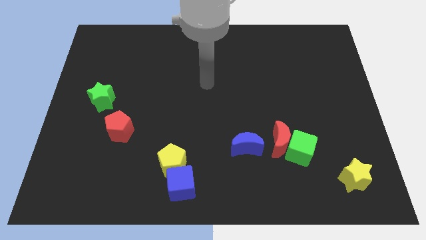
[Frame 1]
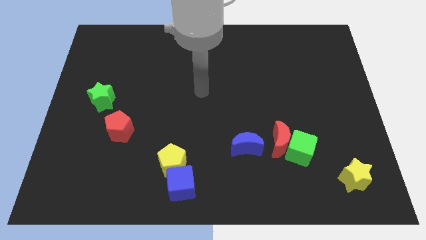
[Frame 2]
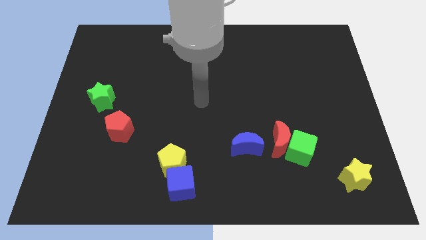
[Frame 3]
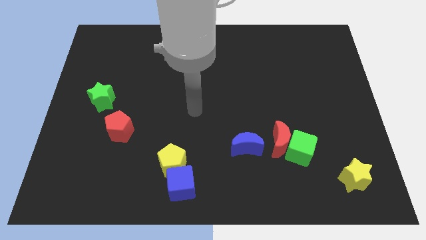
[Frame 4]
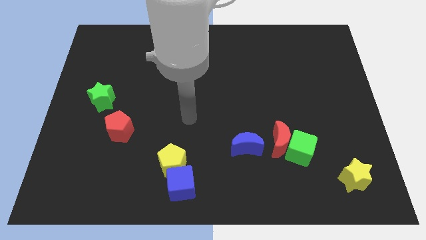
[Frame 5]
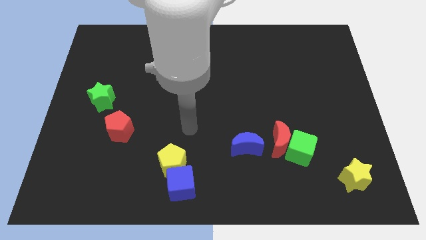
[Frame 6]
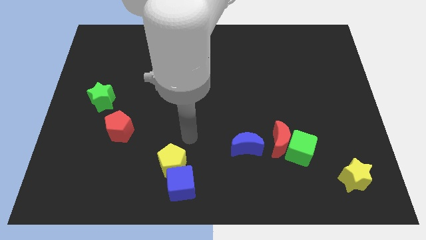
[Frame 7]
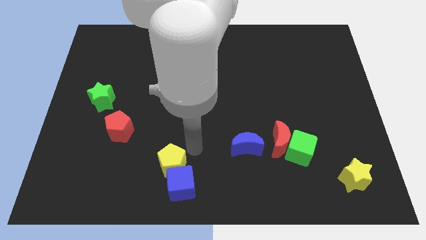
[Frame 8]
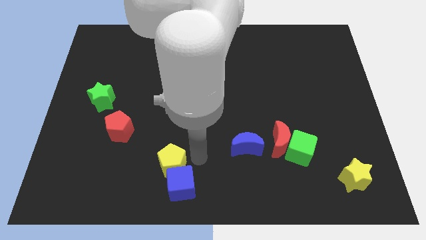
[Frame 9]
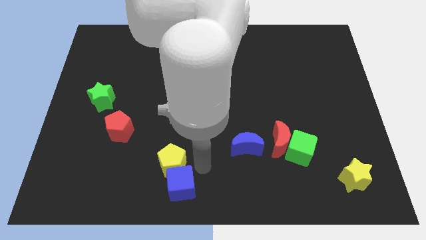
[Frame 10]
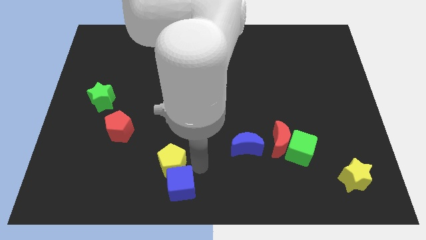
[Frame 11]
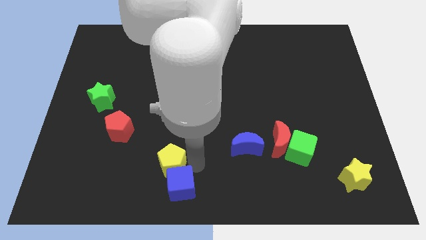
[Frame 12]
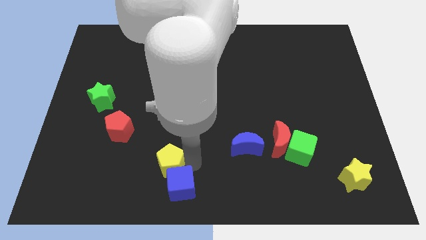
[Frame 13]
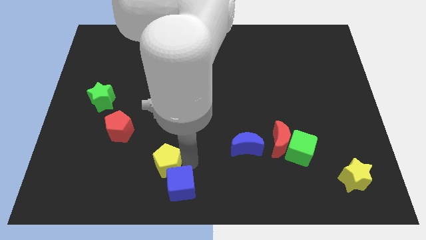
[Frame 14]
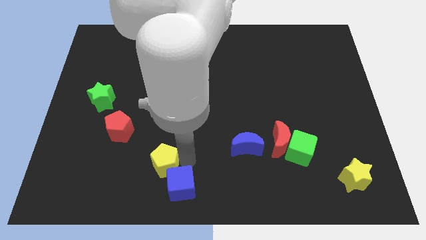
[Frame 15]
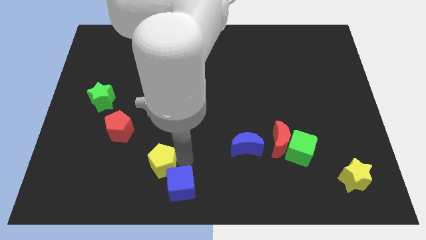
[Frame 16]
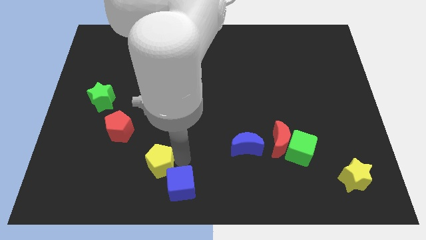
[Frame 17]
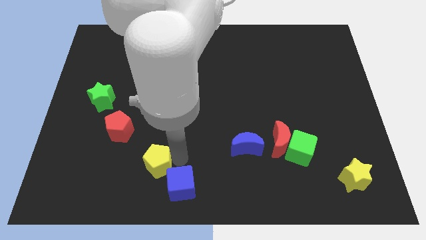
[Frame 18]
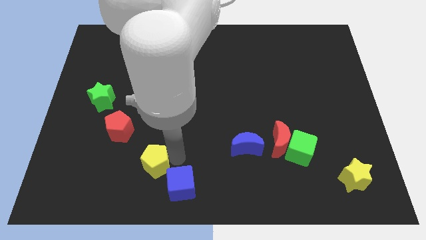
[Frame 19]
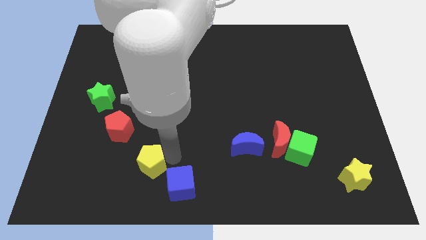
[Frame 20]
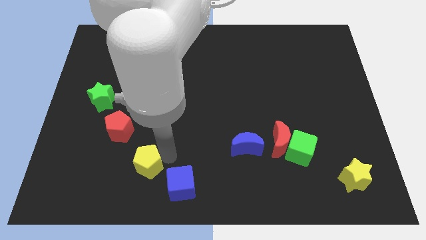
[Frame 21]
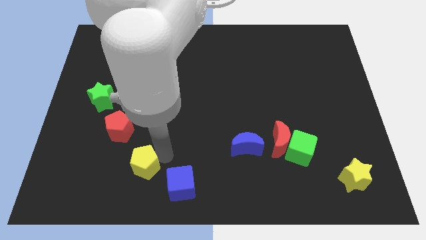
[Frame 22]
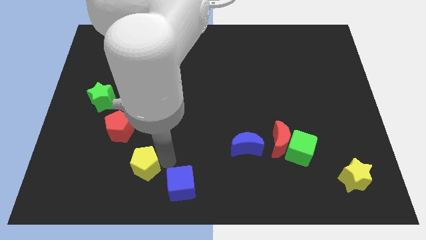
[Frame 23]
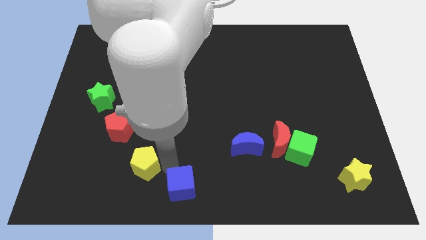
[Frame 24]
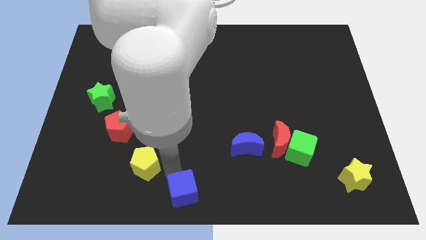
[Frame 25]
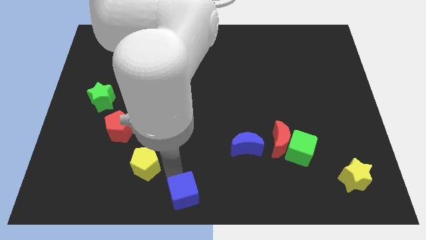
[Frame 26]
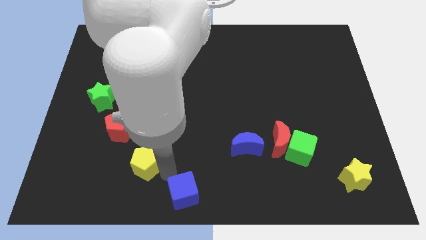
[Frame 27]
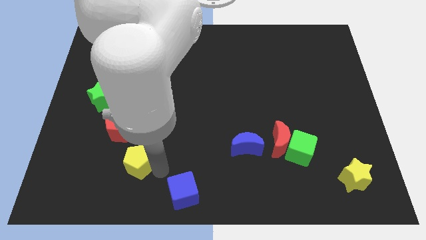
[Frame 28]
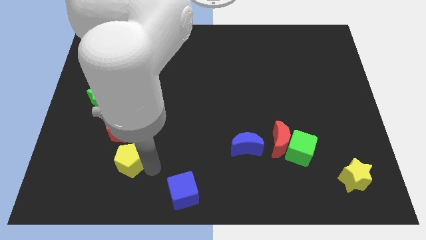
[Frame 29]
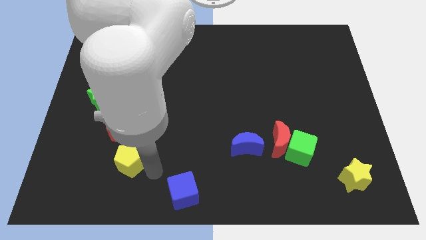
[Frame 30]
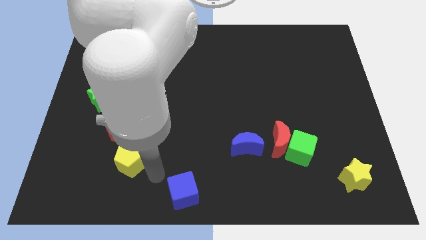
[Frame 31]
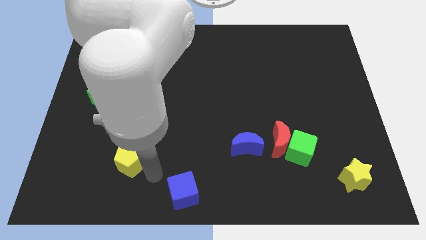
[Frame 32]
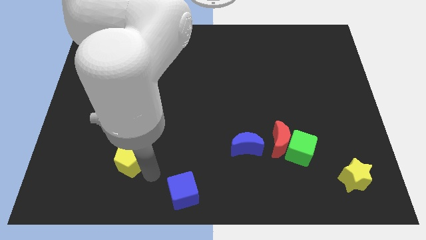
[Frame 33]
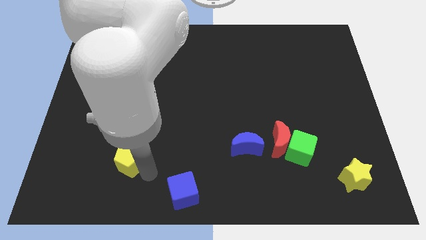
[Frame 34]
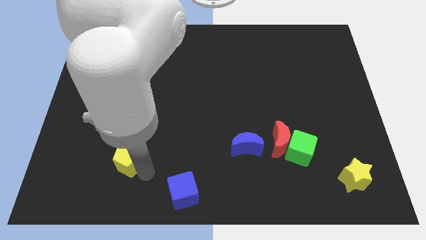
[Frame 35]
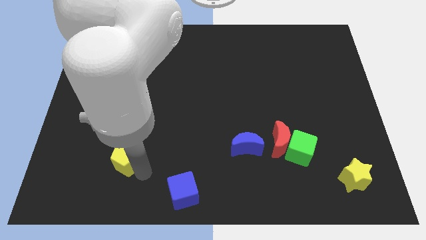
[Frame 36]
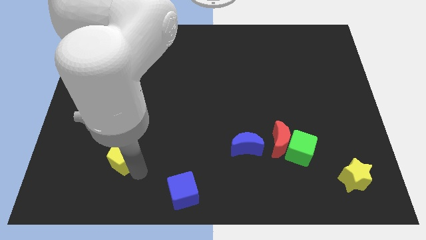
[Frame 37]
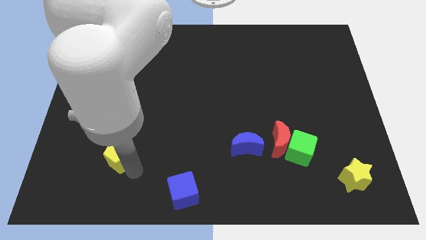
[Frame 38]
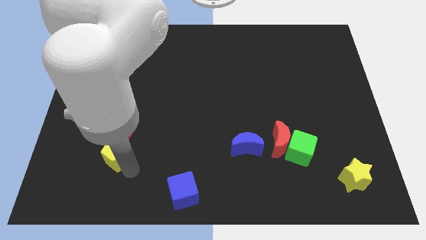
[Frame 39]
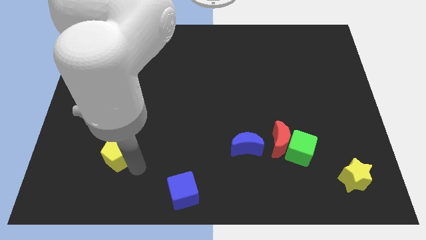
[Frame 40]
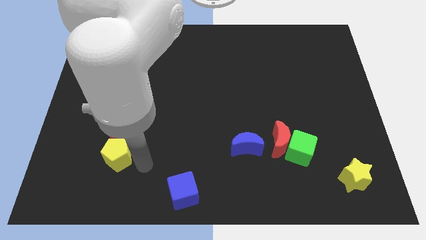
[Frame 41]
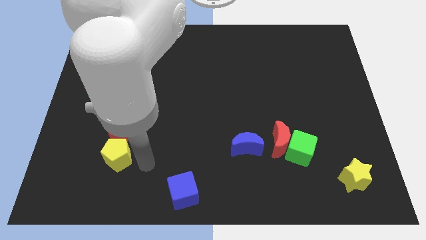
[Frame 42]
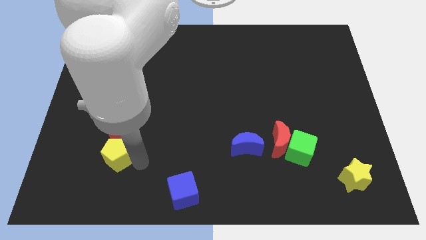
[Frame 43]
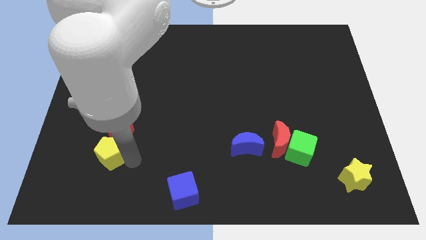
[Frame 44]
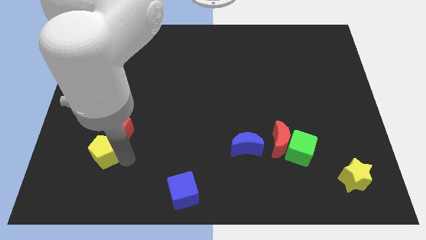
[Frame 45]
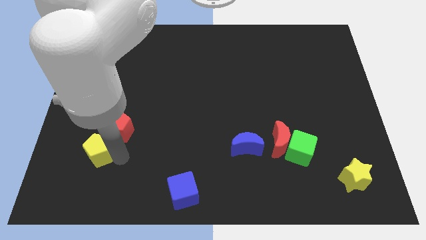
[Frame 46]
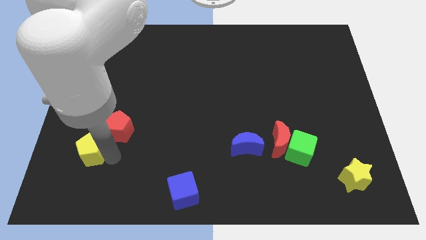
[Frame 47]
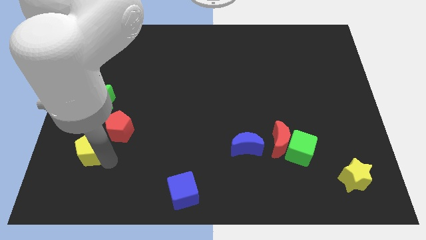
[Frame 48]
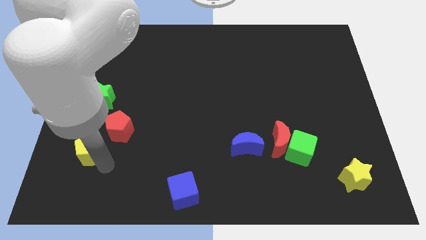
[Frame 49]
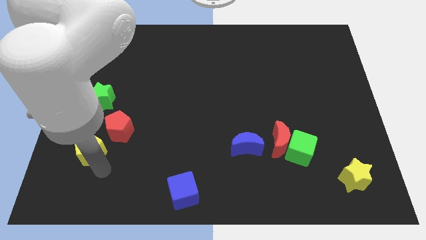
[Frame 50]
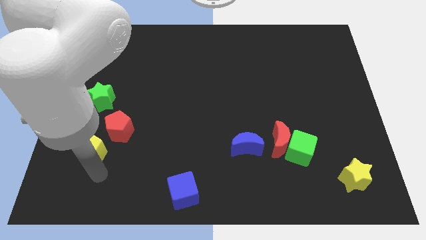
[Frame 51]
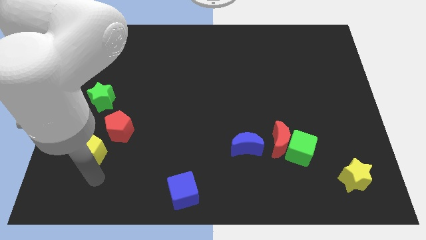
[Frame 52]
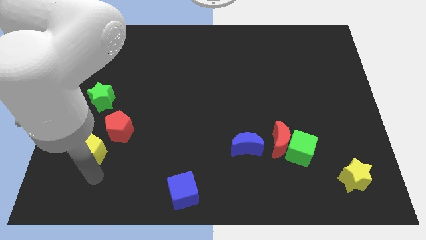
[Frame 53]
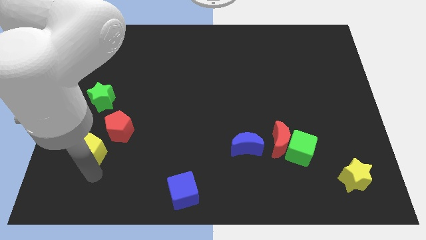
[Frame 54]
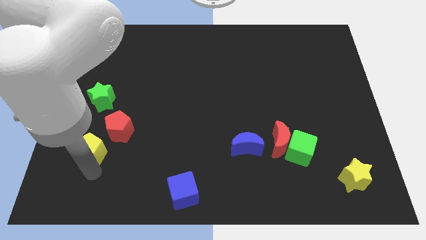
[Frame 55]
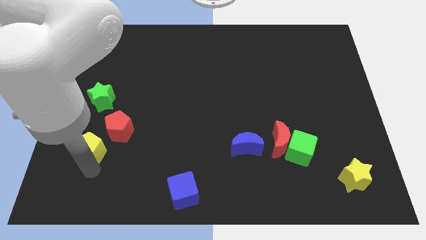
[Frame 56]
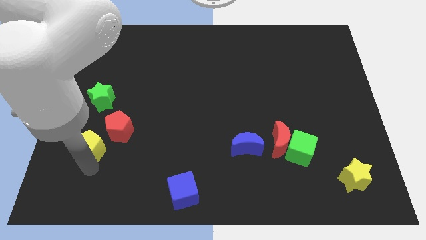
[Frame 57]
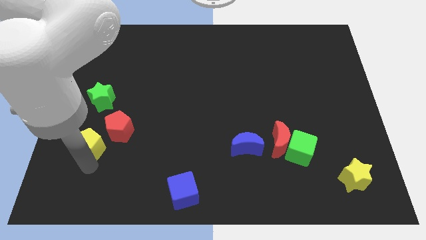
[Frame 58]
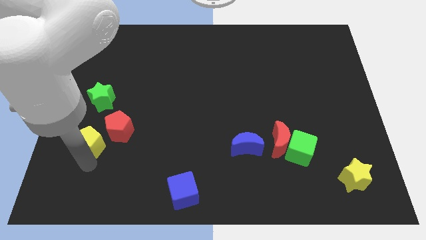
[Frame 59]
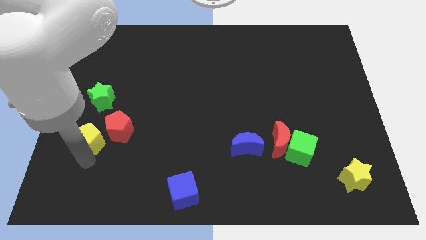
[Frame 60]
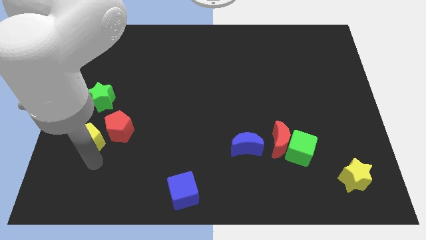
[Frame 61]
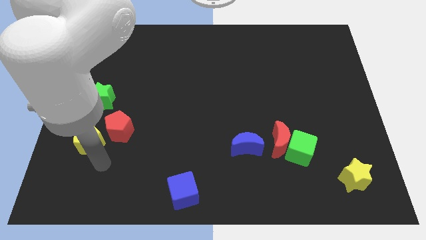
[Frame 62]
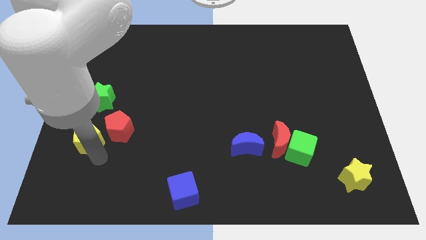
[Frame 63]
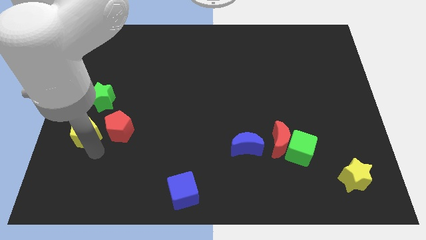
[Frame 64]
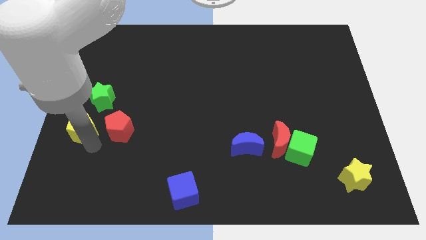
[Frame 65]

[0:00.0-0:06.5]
push the yellow pentagon to the left side of the board

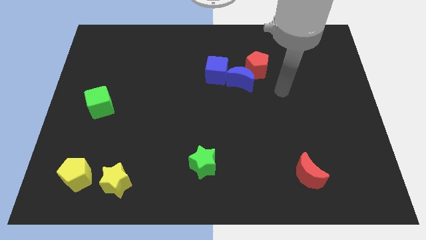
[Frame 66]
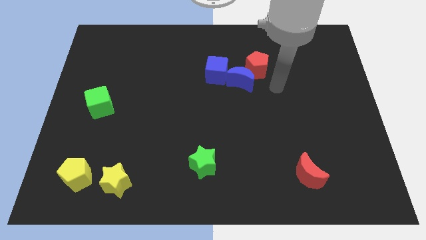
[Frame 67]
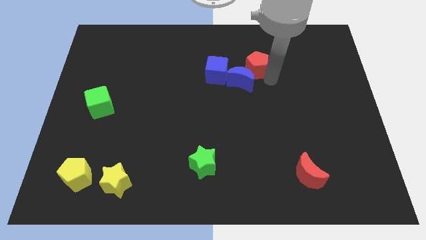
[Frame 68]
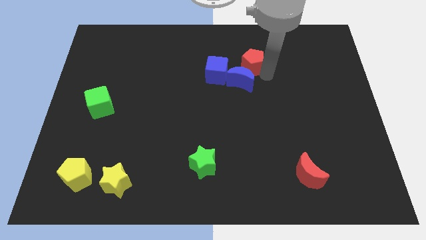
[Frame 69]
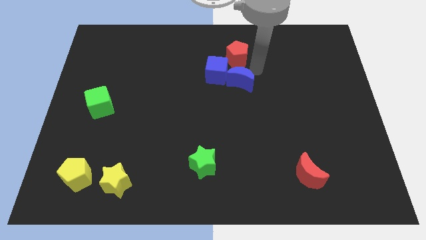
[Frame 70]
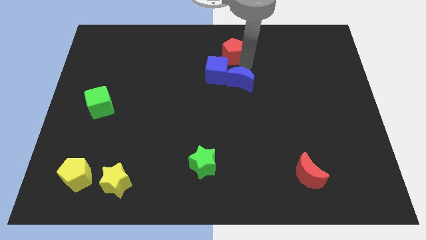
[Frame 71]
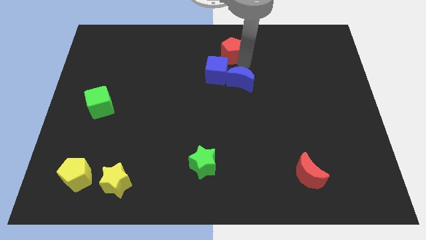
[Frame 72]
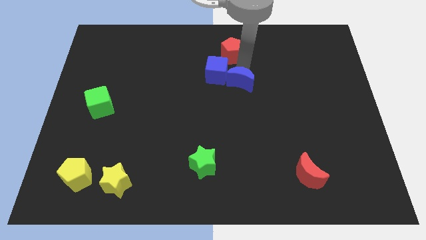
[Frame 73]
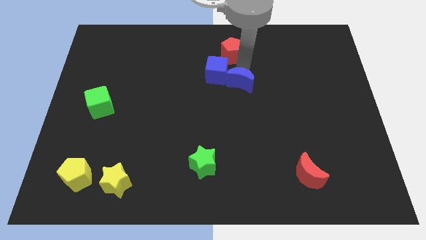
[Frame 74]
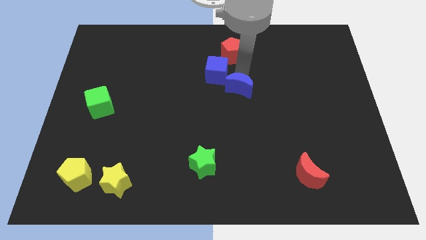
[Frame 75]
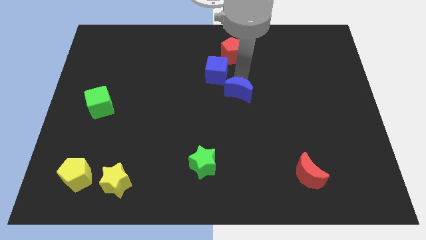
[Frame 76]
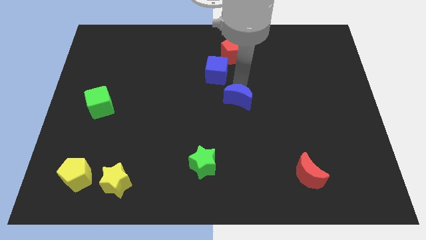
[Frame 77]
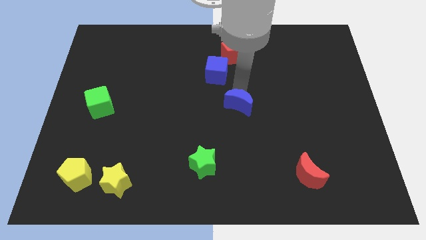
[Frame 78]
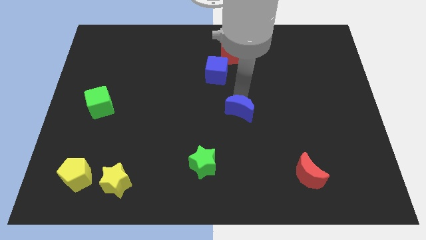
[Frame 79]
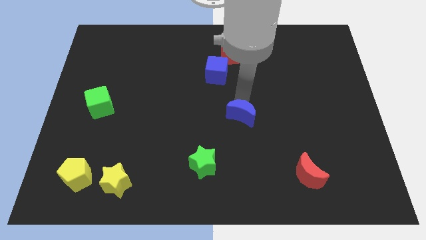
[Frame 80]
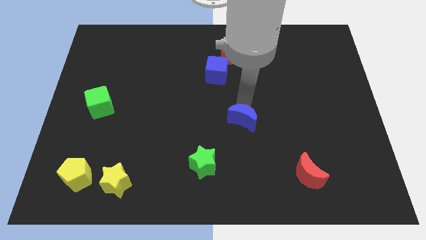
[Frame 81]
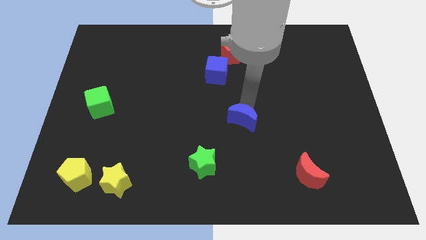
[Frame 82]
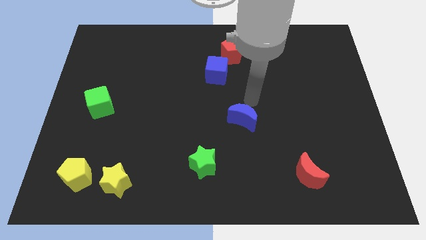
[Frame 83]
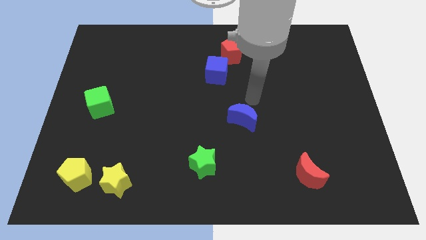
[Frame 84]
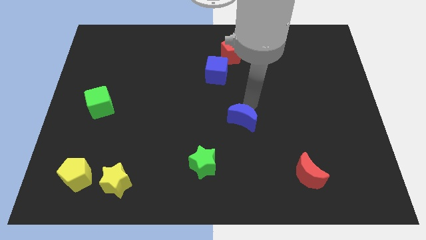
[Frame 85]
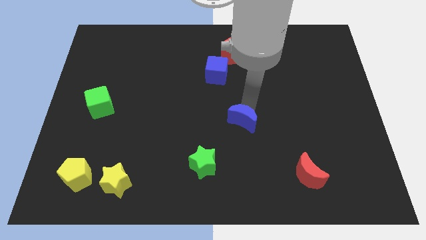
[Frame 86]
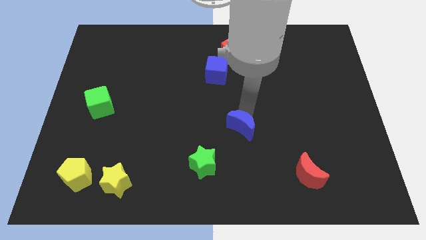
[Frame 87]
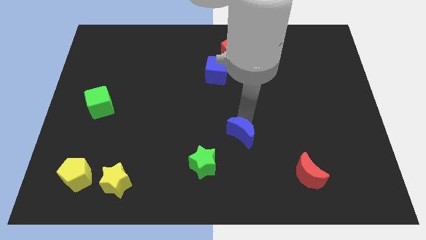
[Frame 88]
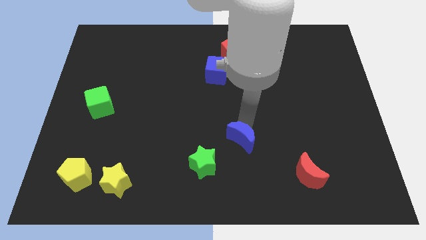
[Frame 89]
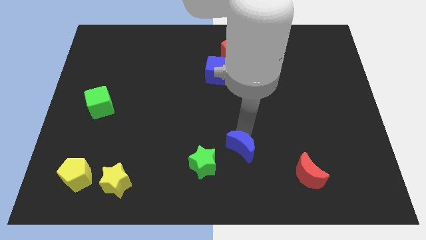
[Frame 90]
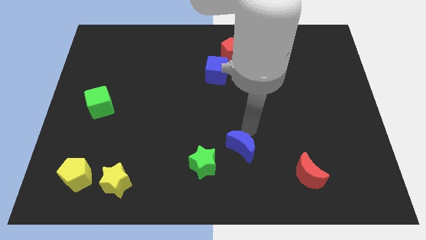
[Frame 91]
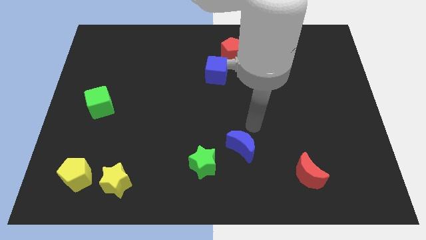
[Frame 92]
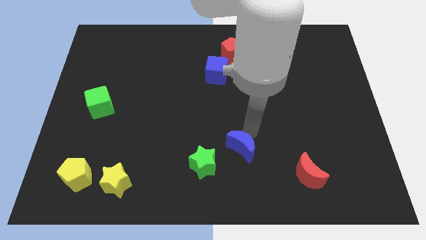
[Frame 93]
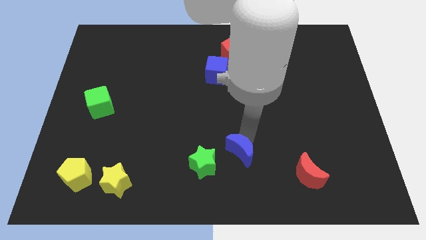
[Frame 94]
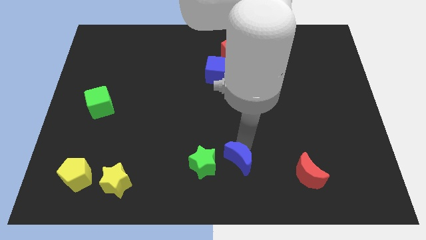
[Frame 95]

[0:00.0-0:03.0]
slide the blue moon to the bottom
